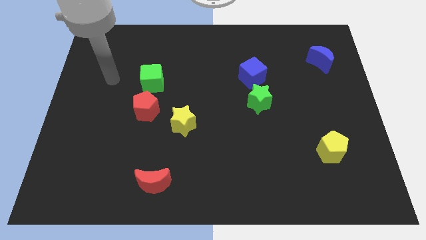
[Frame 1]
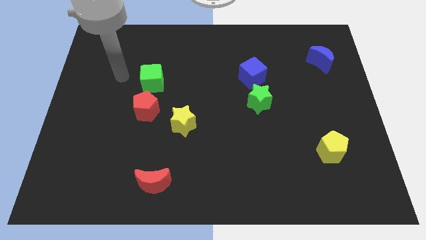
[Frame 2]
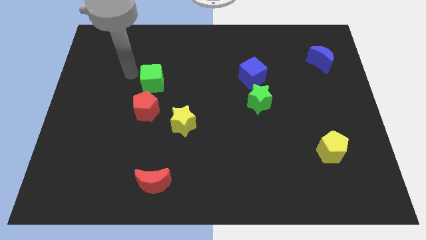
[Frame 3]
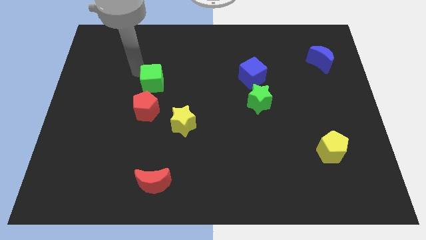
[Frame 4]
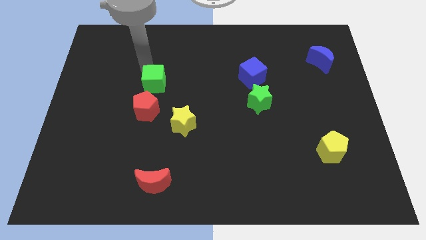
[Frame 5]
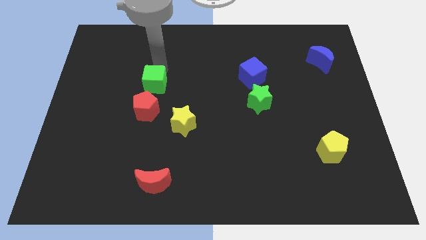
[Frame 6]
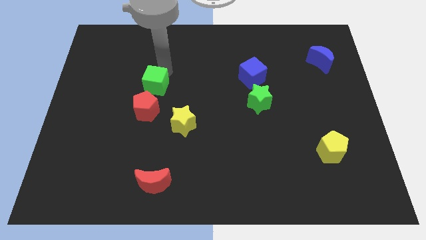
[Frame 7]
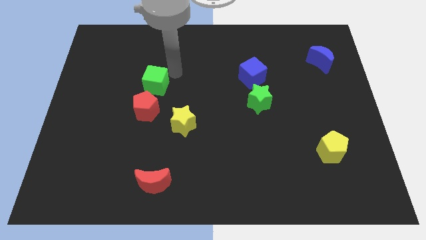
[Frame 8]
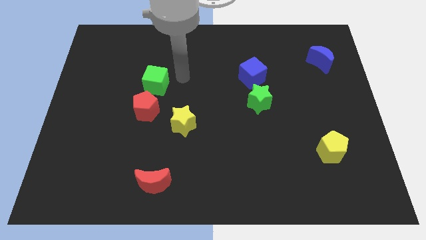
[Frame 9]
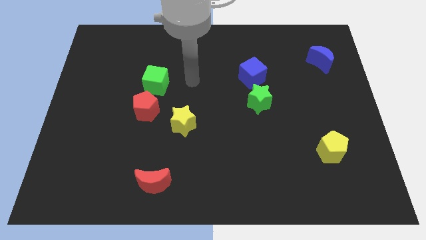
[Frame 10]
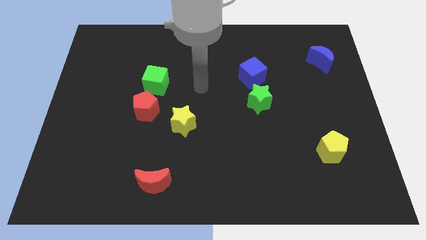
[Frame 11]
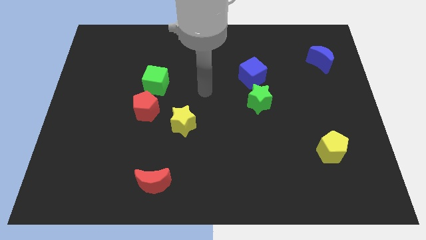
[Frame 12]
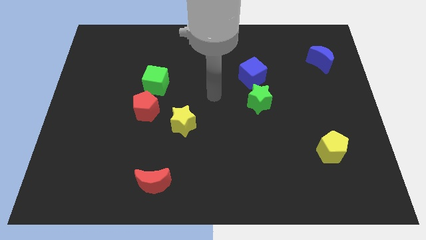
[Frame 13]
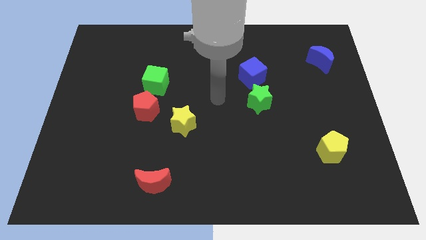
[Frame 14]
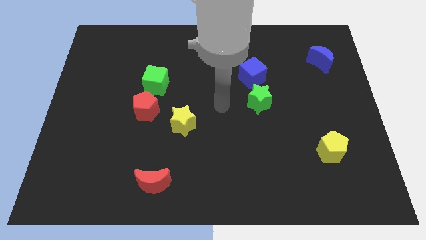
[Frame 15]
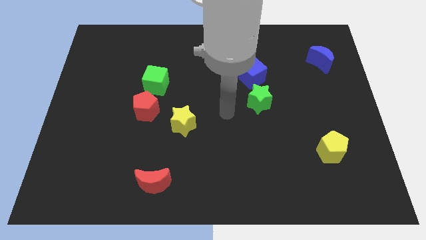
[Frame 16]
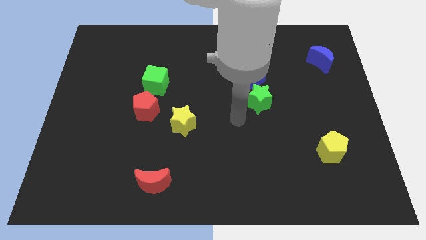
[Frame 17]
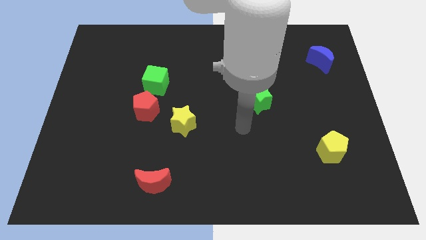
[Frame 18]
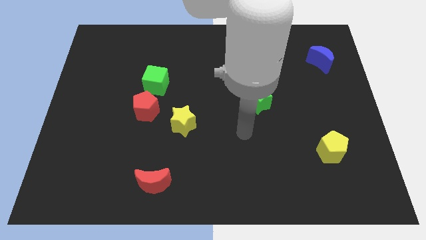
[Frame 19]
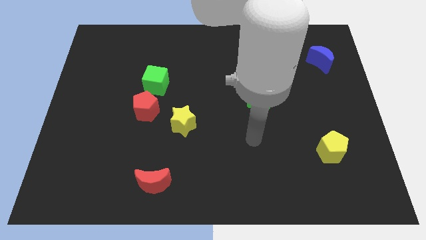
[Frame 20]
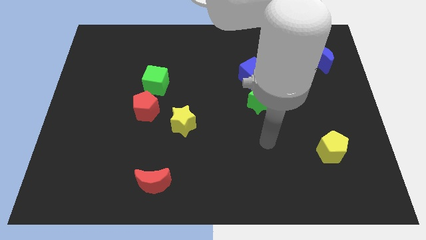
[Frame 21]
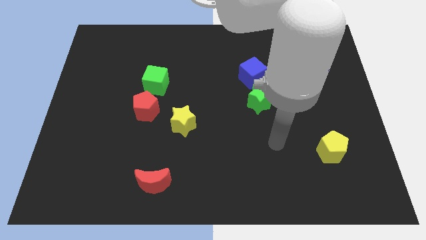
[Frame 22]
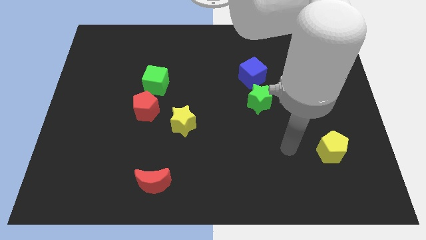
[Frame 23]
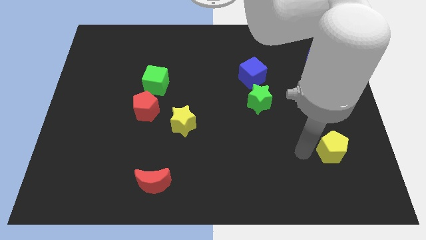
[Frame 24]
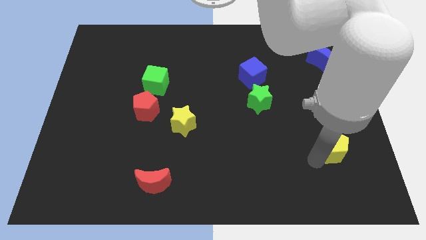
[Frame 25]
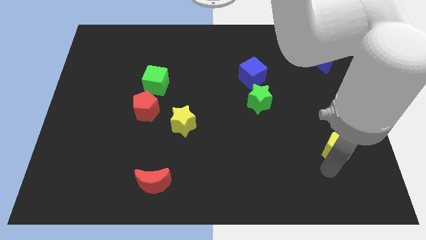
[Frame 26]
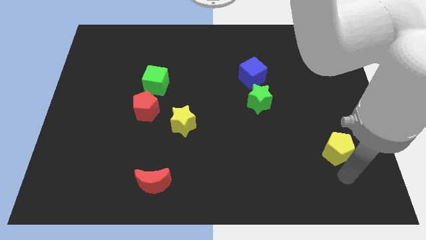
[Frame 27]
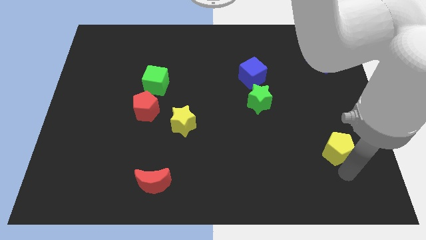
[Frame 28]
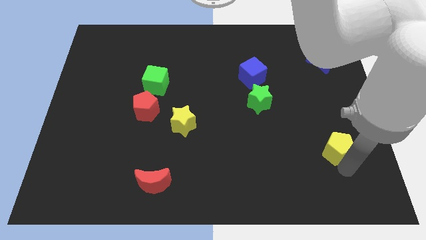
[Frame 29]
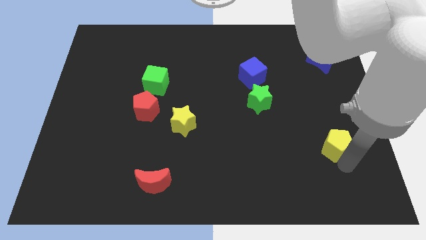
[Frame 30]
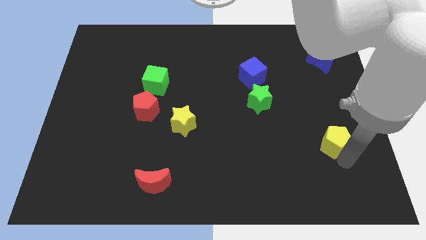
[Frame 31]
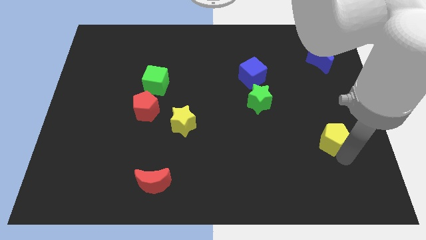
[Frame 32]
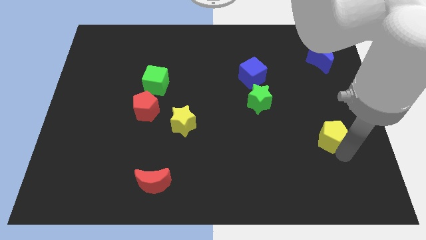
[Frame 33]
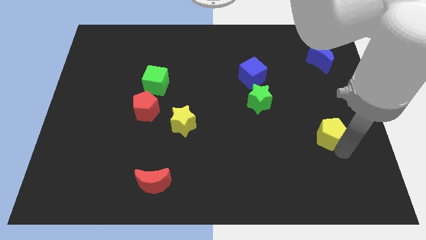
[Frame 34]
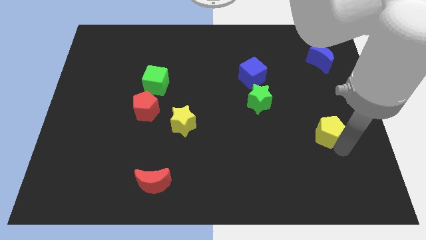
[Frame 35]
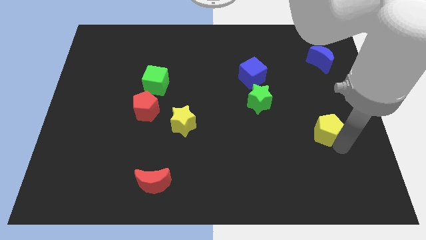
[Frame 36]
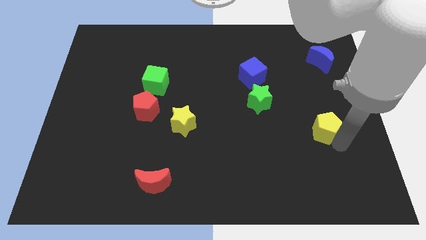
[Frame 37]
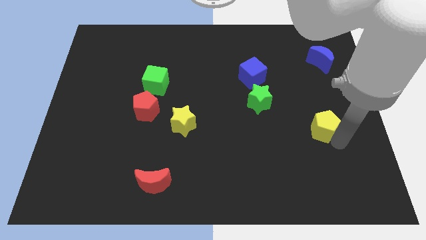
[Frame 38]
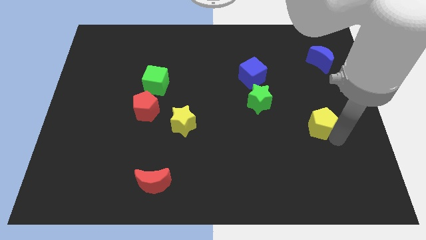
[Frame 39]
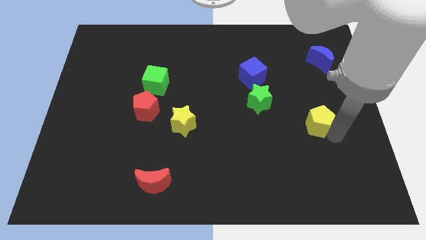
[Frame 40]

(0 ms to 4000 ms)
slightly push the yellow pentagon upwards

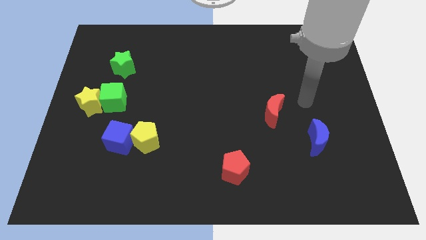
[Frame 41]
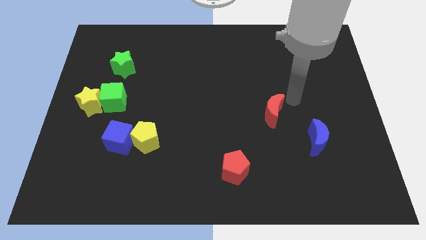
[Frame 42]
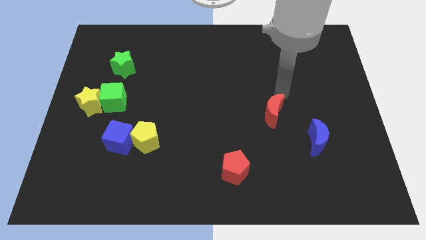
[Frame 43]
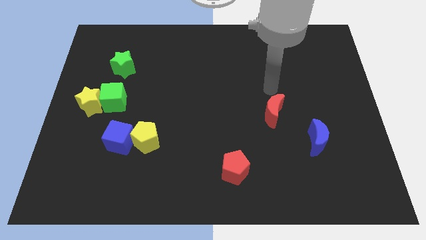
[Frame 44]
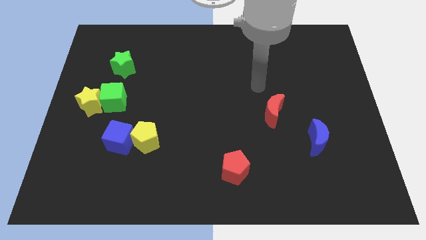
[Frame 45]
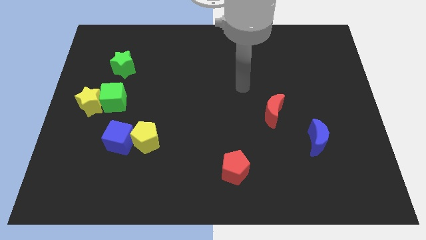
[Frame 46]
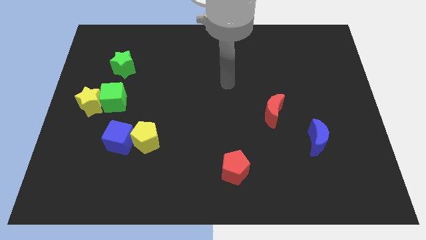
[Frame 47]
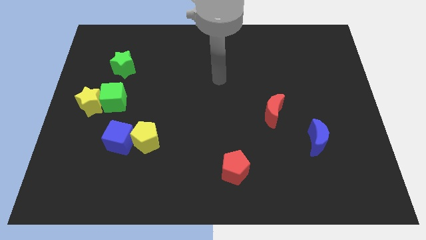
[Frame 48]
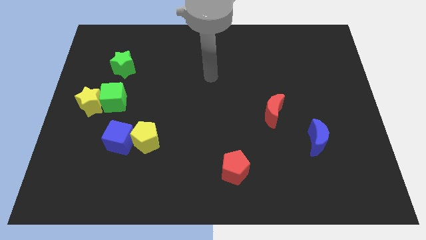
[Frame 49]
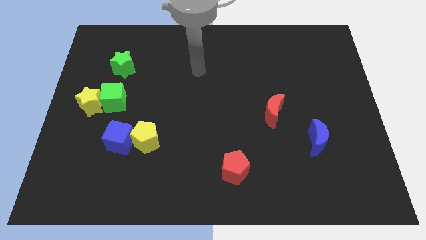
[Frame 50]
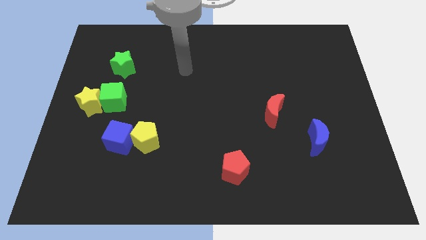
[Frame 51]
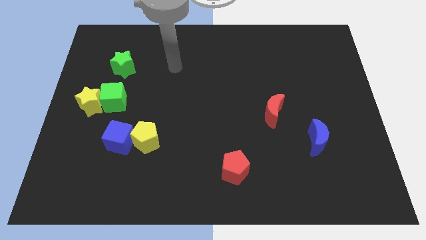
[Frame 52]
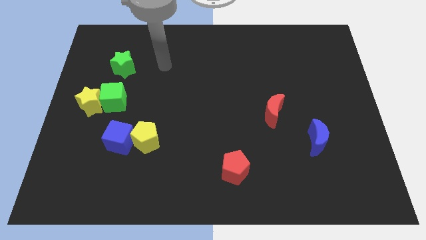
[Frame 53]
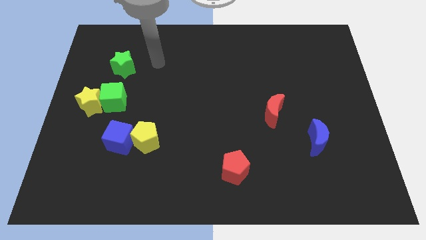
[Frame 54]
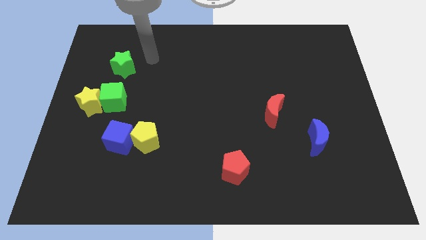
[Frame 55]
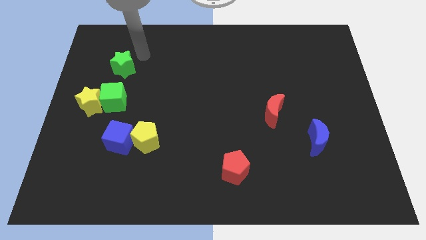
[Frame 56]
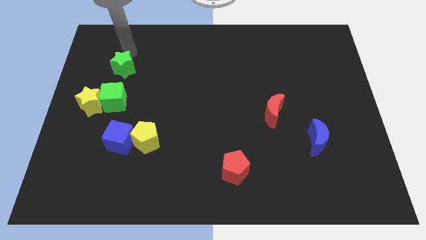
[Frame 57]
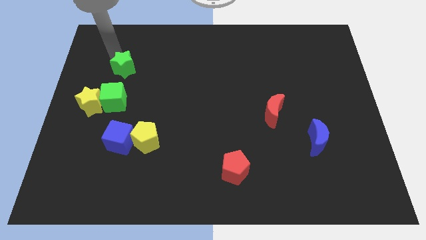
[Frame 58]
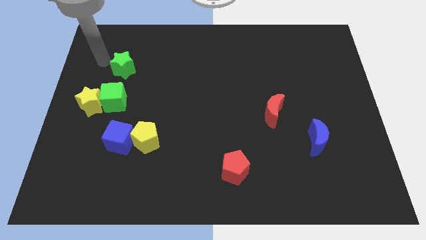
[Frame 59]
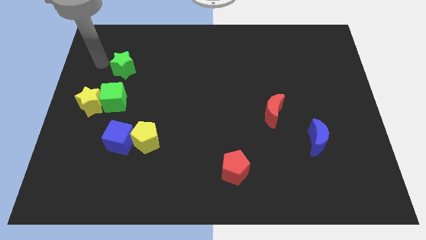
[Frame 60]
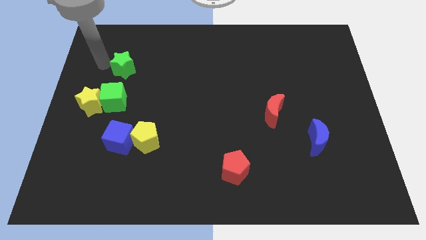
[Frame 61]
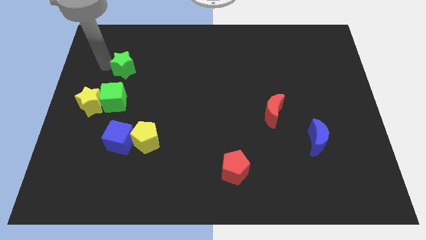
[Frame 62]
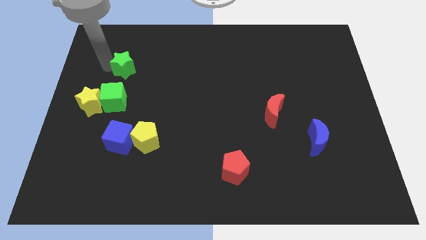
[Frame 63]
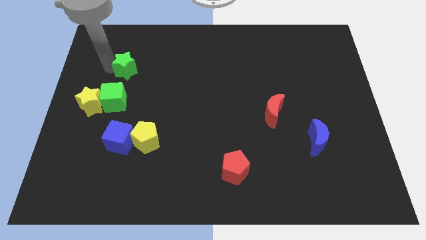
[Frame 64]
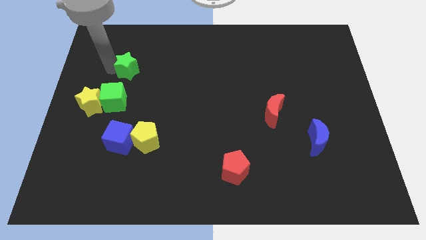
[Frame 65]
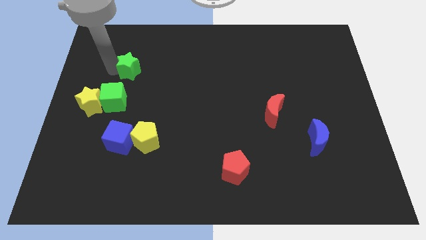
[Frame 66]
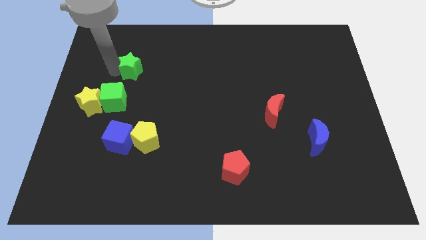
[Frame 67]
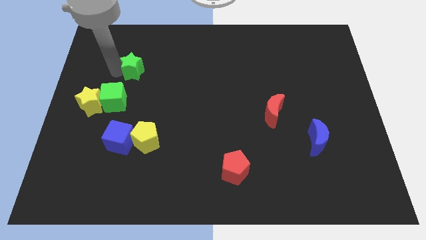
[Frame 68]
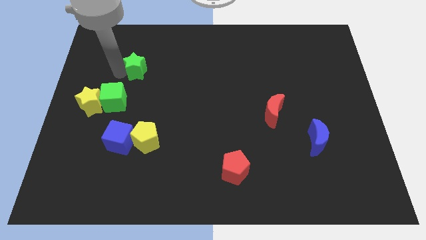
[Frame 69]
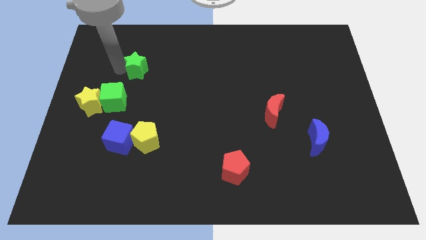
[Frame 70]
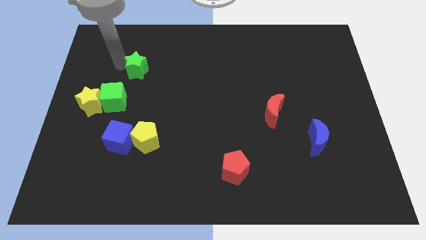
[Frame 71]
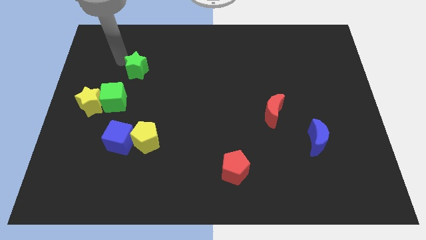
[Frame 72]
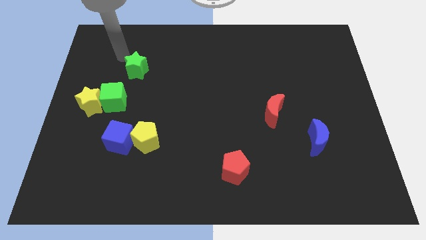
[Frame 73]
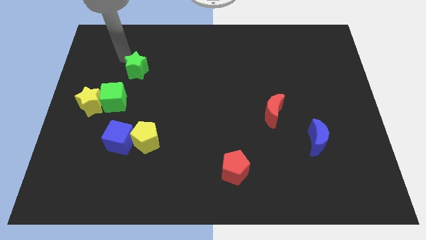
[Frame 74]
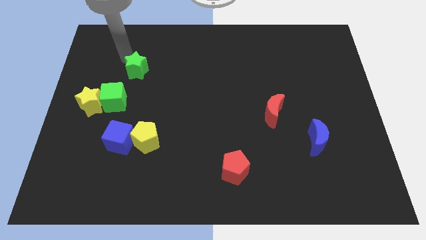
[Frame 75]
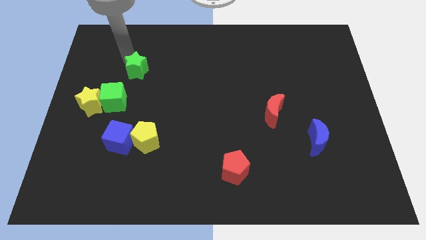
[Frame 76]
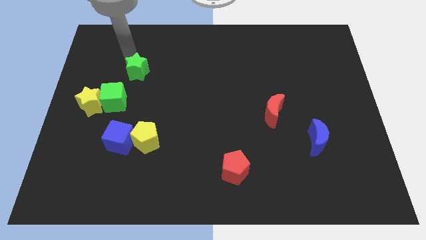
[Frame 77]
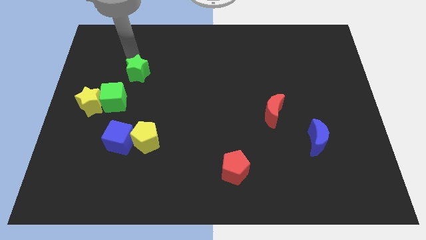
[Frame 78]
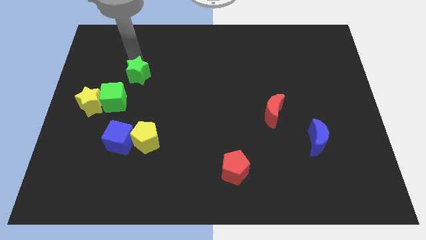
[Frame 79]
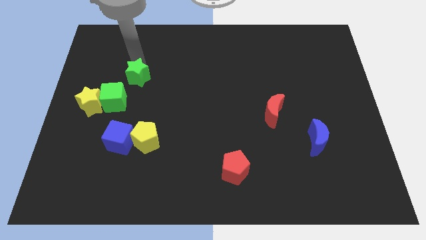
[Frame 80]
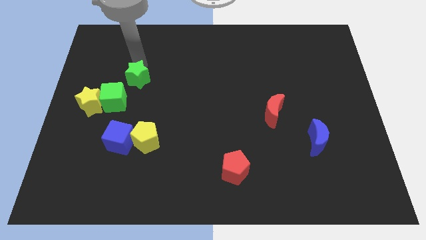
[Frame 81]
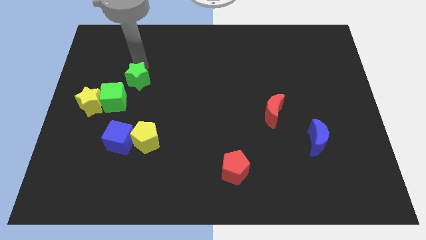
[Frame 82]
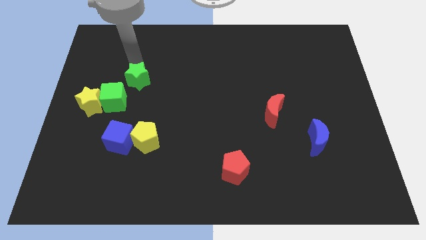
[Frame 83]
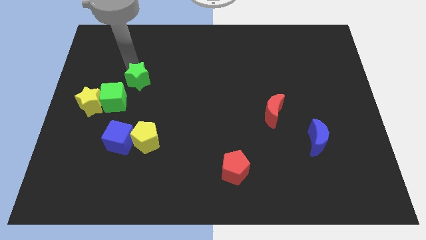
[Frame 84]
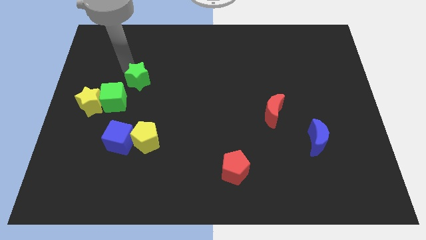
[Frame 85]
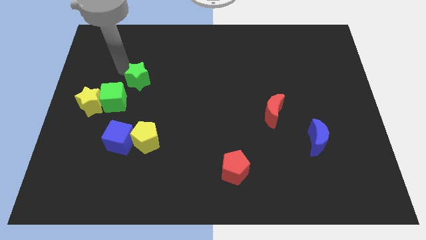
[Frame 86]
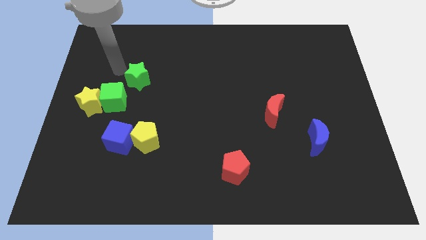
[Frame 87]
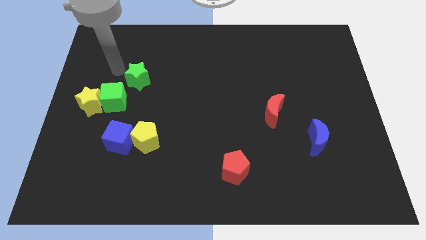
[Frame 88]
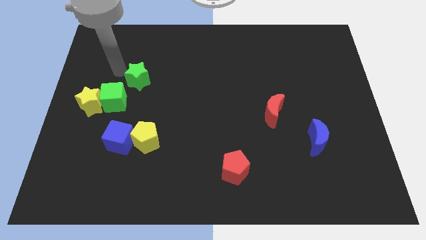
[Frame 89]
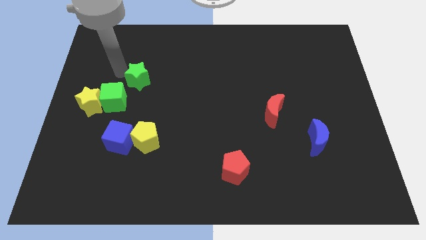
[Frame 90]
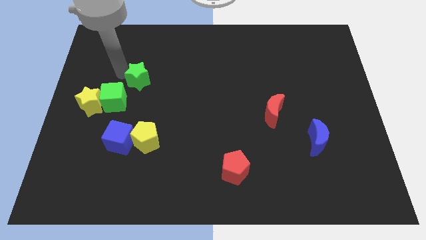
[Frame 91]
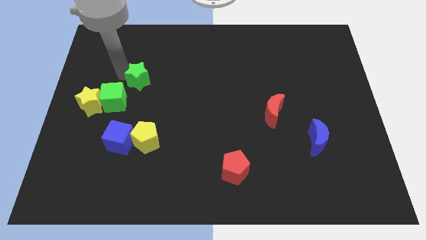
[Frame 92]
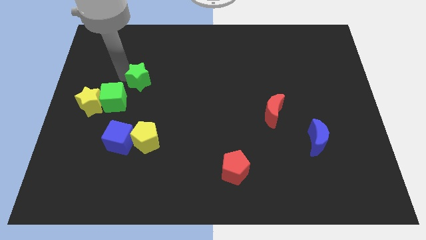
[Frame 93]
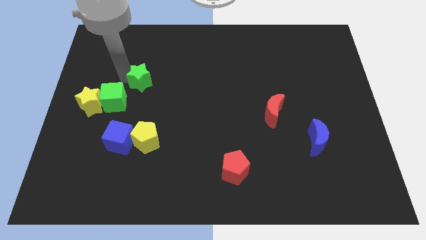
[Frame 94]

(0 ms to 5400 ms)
push the green star slightly diagonally down and right
